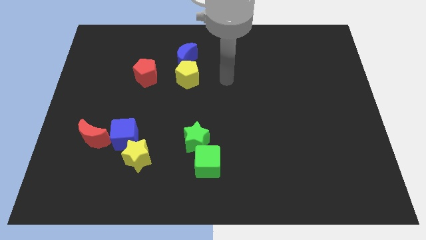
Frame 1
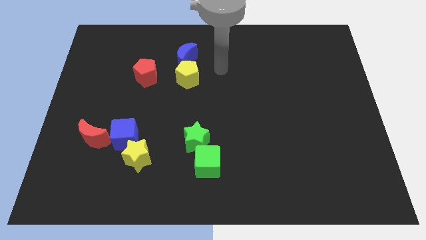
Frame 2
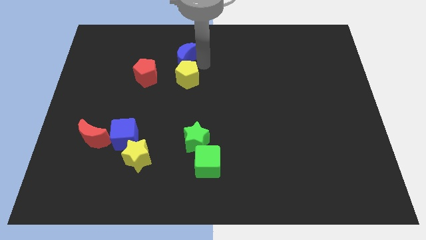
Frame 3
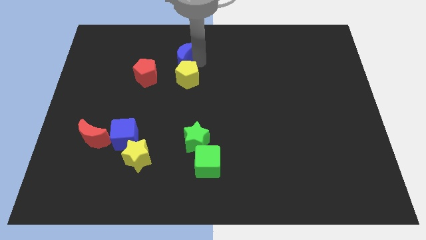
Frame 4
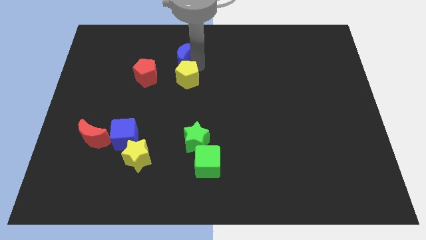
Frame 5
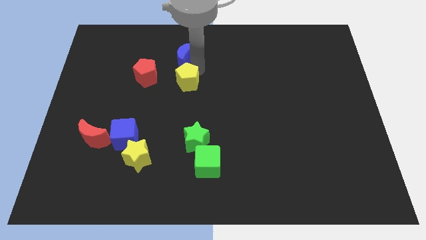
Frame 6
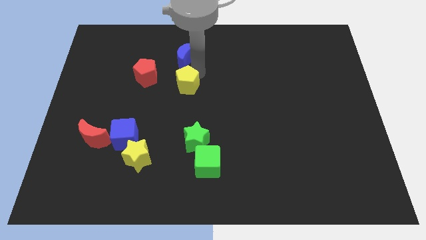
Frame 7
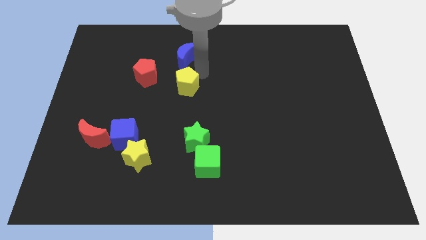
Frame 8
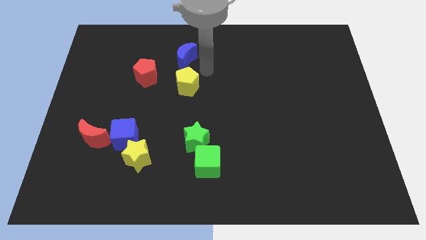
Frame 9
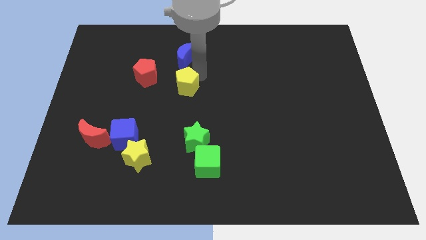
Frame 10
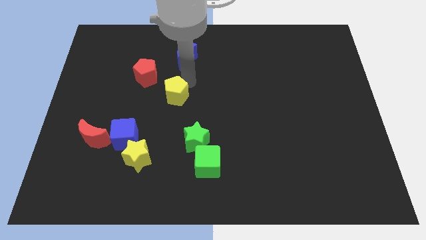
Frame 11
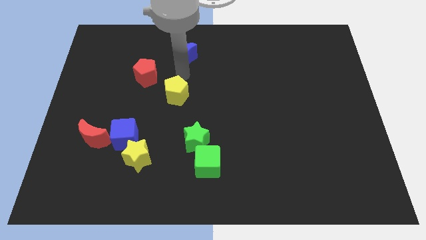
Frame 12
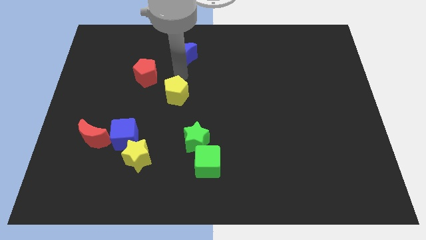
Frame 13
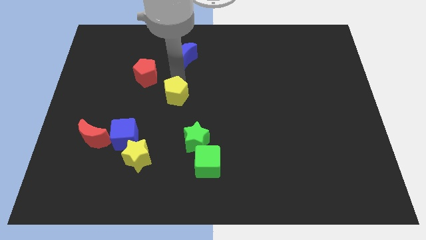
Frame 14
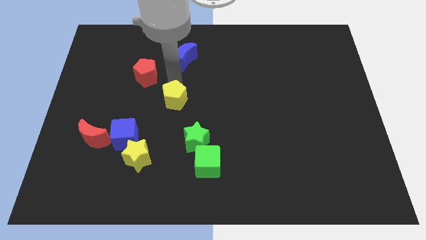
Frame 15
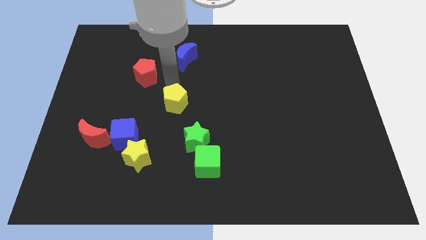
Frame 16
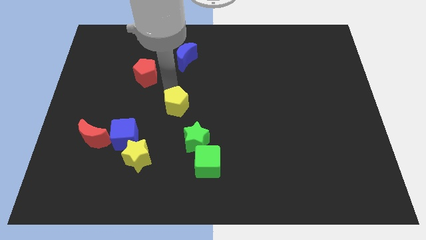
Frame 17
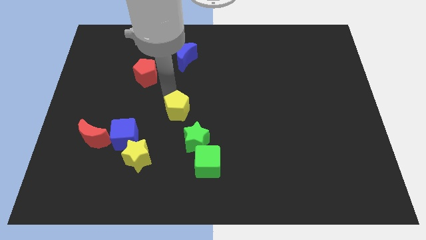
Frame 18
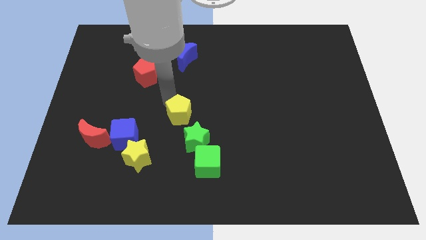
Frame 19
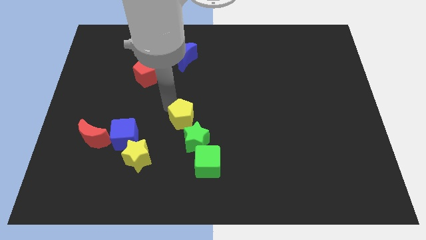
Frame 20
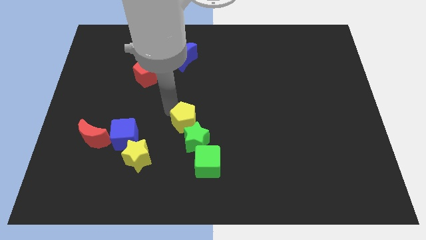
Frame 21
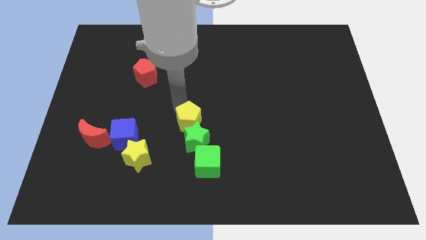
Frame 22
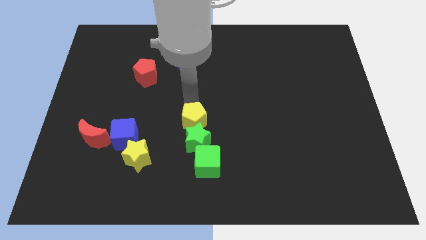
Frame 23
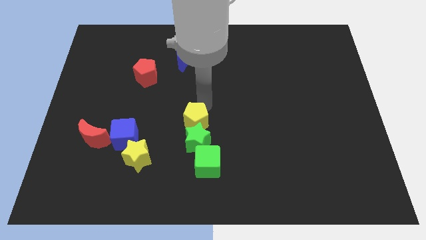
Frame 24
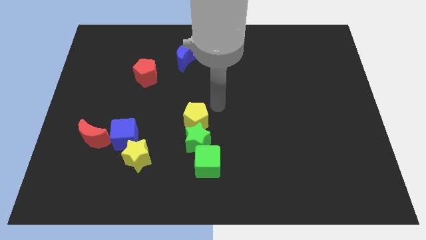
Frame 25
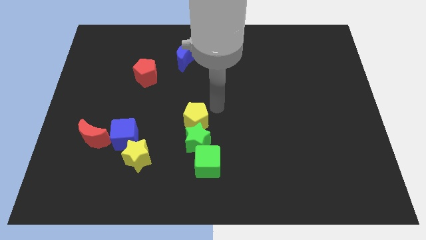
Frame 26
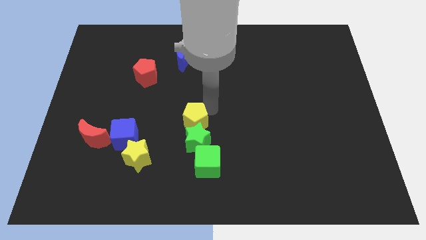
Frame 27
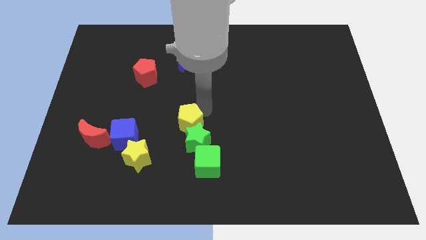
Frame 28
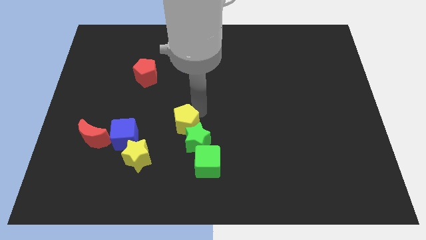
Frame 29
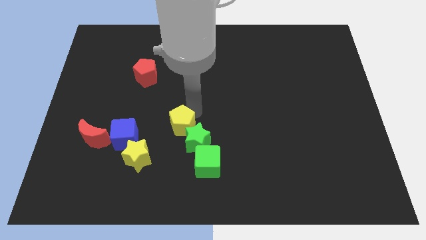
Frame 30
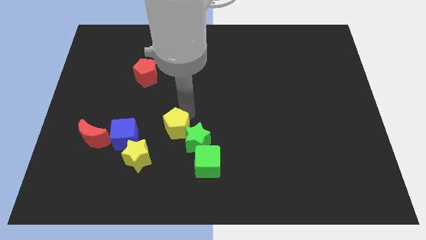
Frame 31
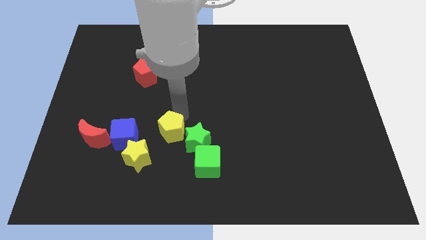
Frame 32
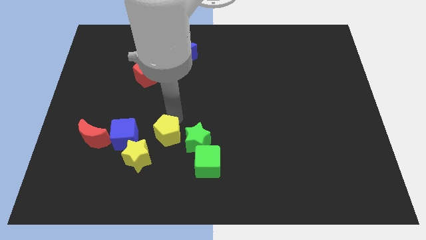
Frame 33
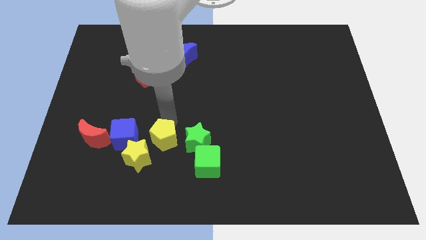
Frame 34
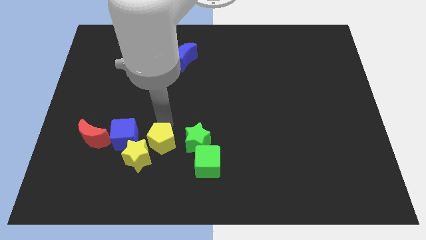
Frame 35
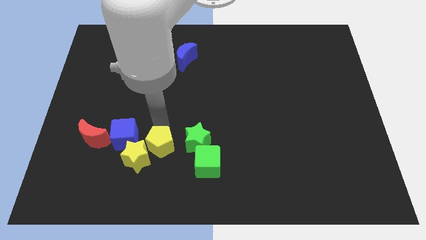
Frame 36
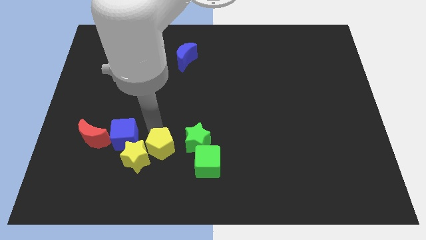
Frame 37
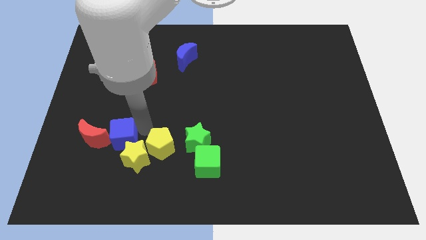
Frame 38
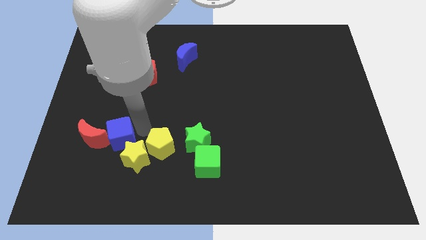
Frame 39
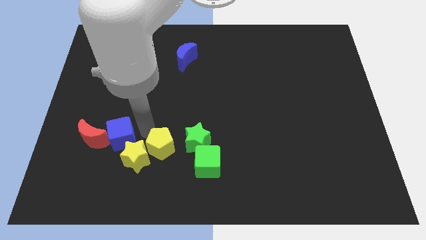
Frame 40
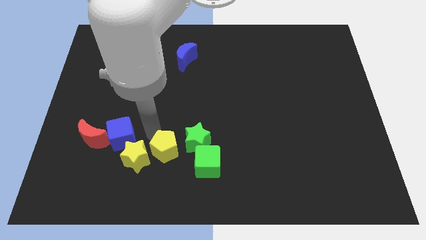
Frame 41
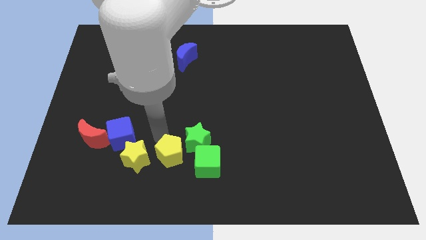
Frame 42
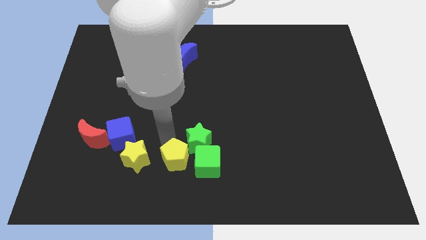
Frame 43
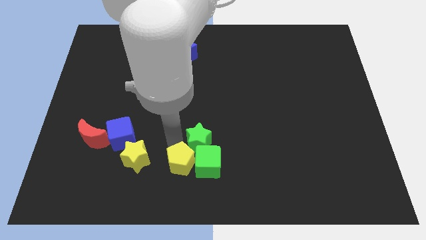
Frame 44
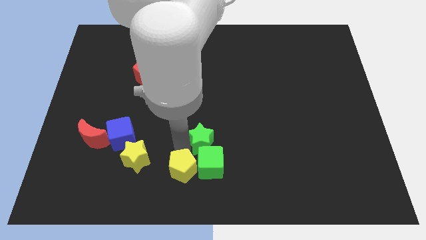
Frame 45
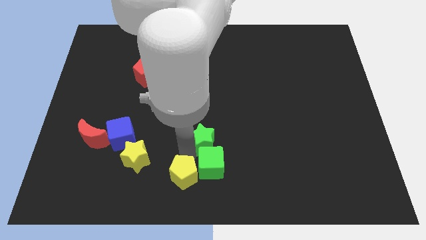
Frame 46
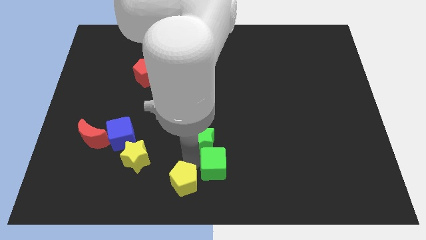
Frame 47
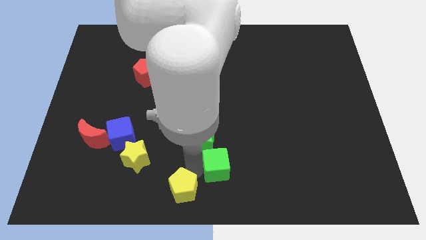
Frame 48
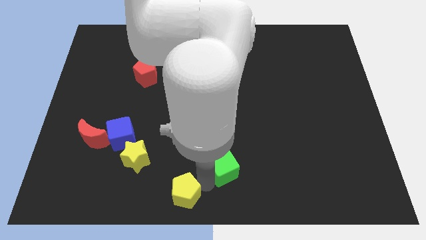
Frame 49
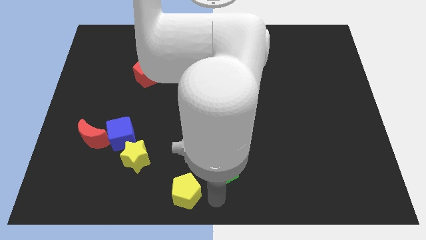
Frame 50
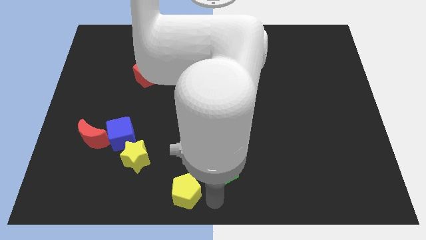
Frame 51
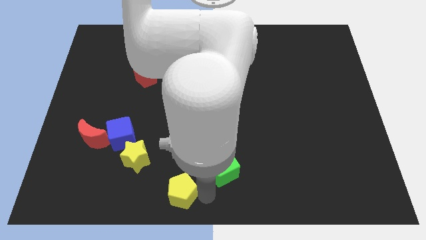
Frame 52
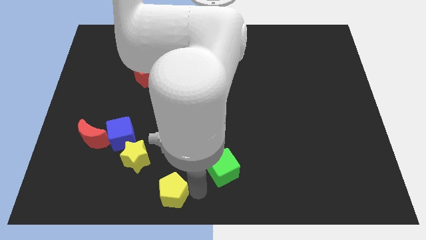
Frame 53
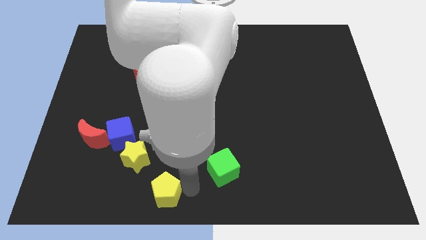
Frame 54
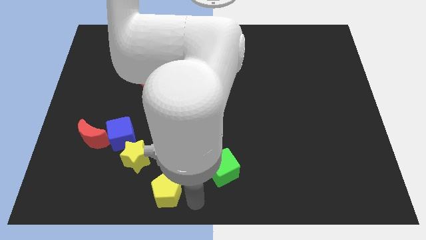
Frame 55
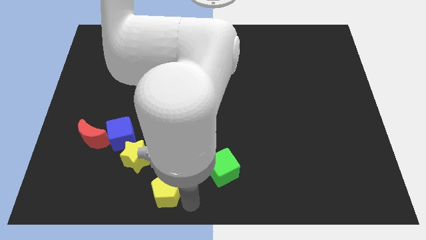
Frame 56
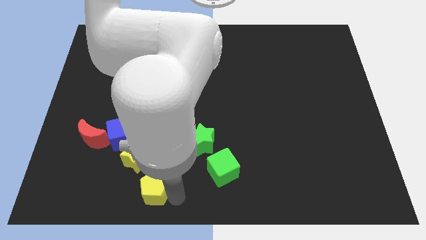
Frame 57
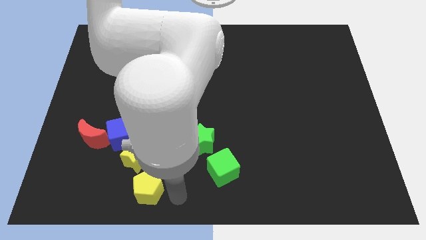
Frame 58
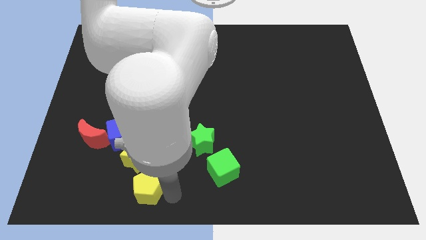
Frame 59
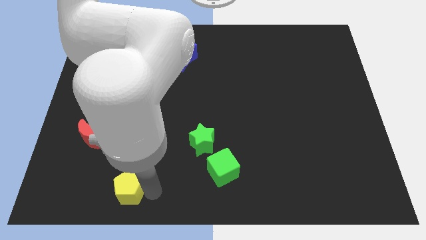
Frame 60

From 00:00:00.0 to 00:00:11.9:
slide the yellow pentagon to the bottom left of the yellow star

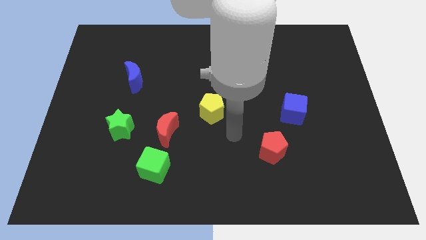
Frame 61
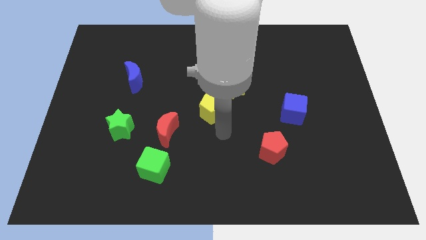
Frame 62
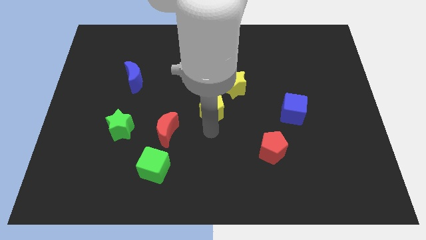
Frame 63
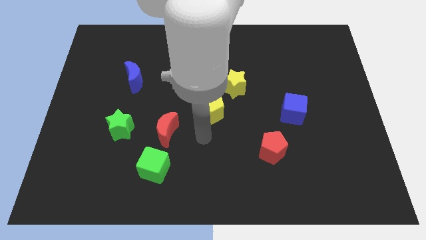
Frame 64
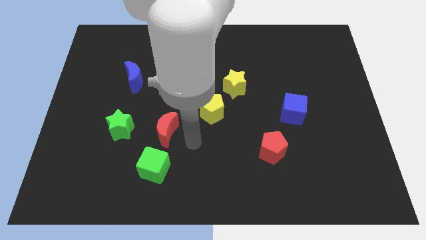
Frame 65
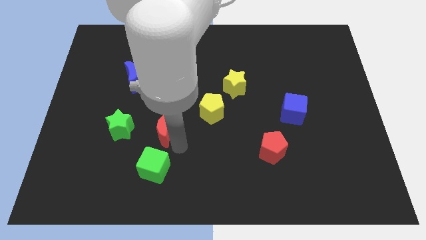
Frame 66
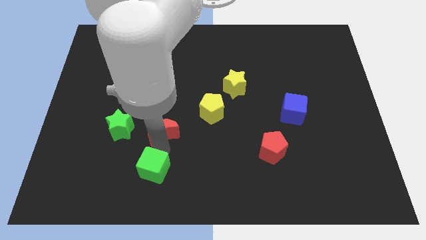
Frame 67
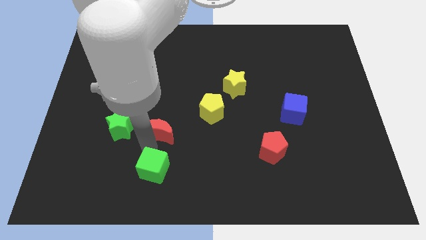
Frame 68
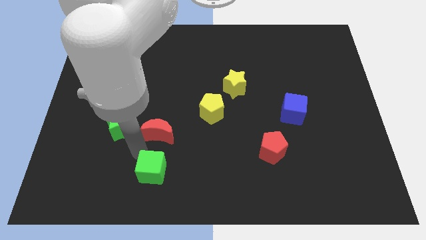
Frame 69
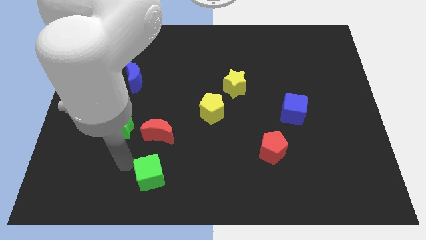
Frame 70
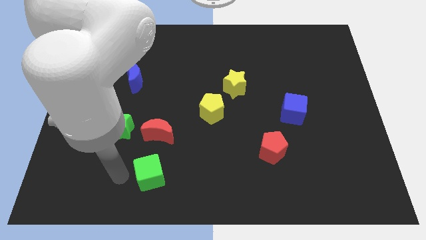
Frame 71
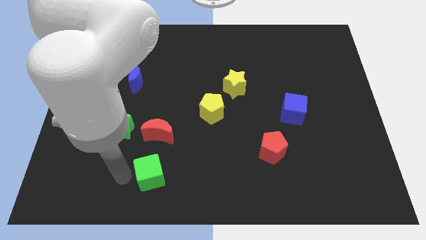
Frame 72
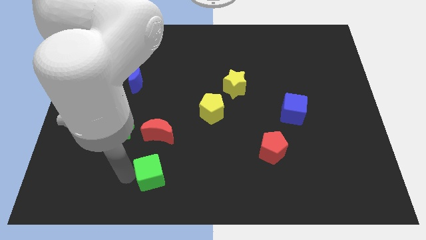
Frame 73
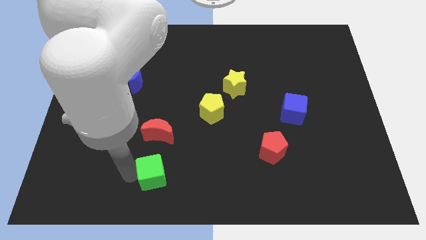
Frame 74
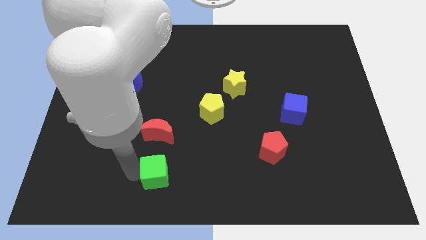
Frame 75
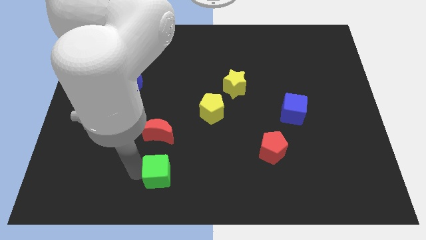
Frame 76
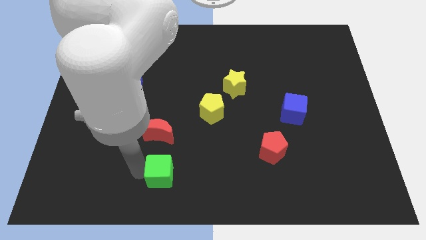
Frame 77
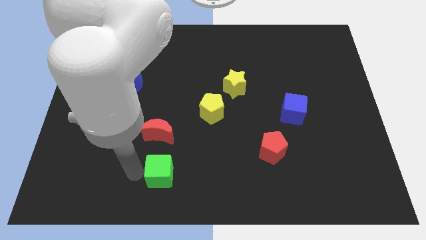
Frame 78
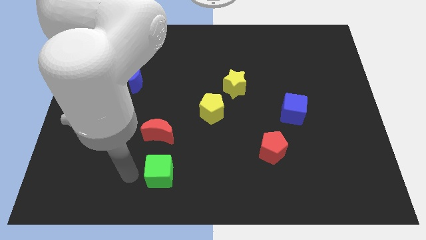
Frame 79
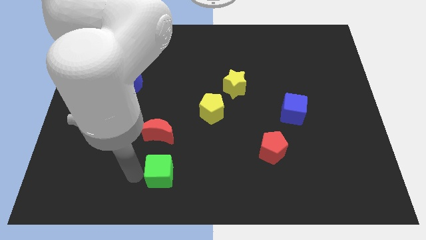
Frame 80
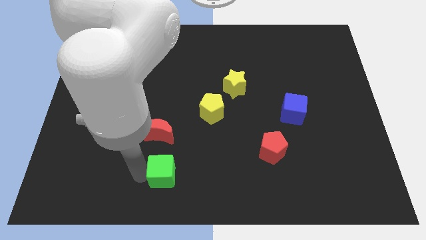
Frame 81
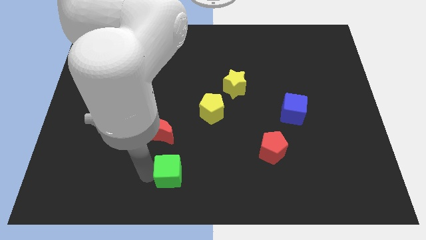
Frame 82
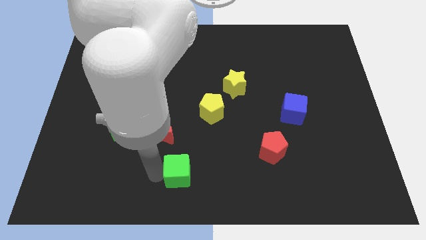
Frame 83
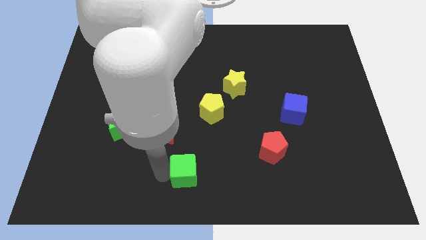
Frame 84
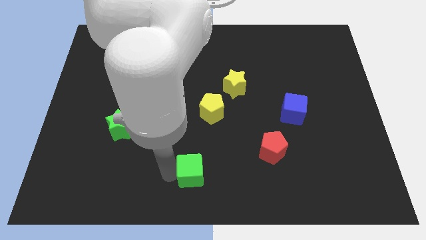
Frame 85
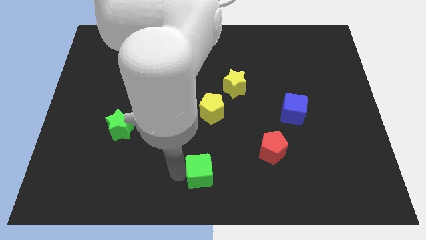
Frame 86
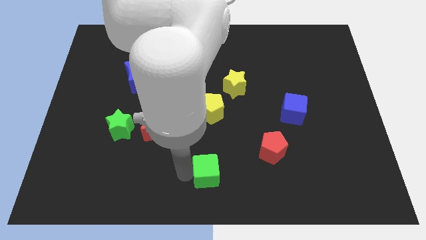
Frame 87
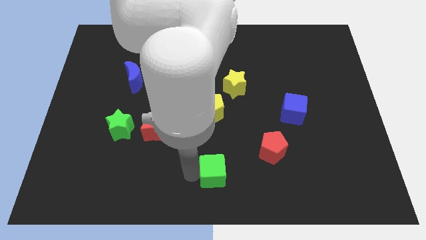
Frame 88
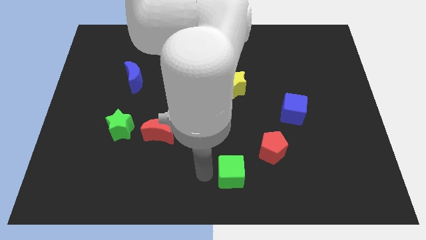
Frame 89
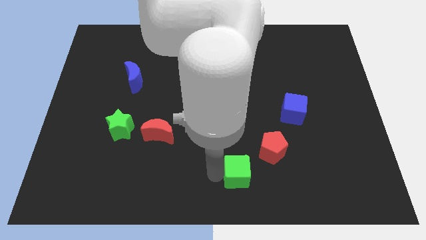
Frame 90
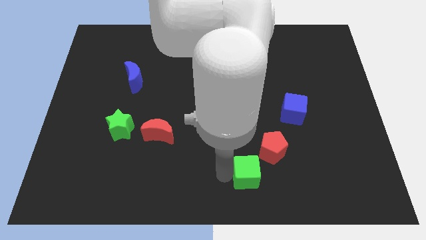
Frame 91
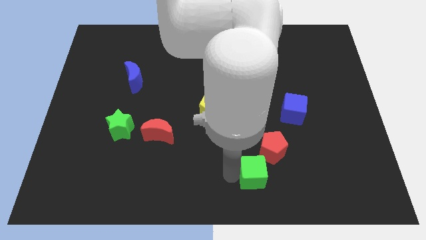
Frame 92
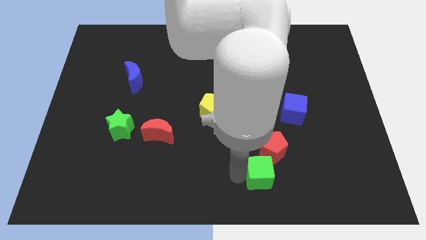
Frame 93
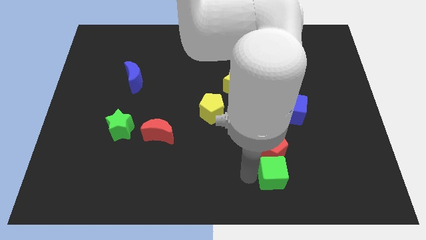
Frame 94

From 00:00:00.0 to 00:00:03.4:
slide the green cube diagonally down and to the right of the red pentagon
